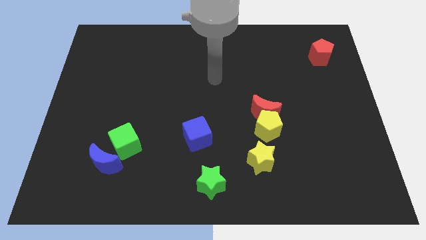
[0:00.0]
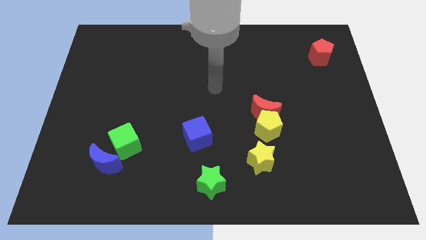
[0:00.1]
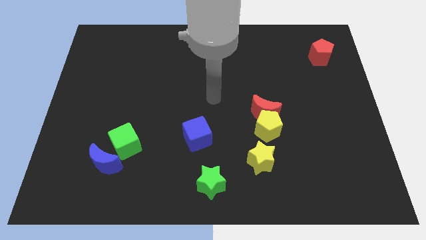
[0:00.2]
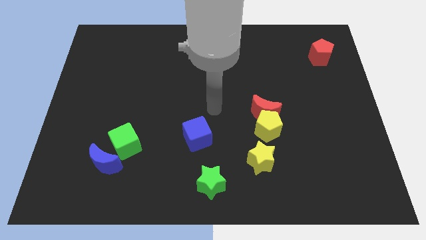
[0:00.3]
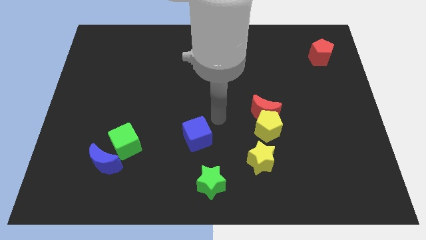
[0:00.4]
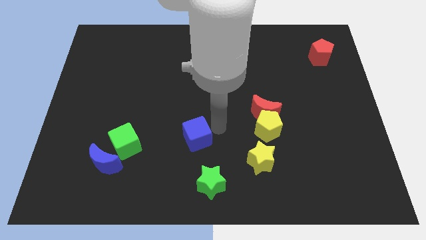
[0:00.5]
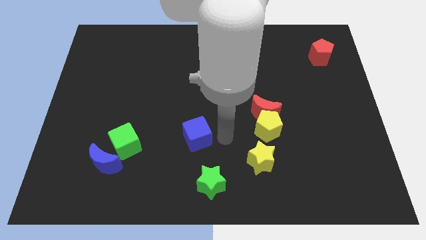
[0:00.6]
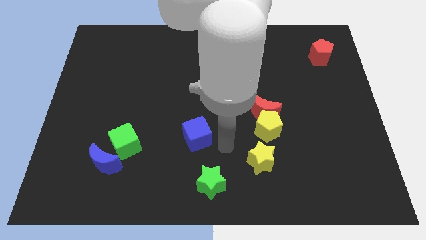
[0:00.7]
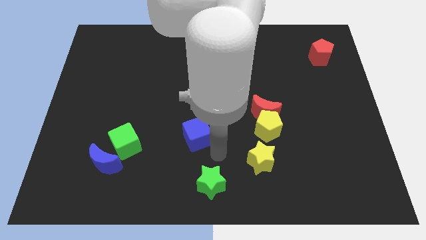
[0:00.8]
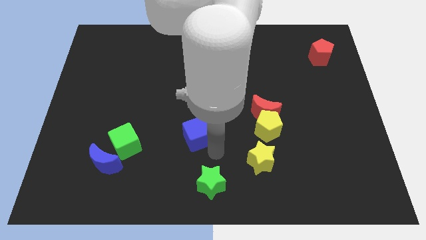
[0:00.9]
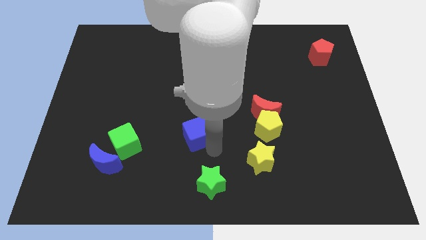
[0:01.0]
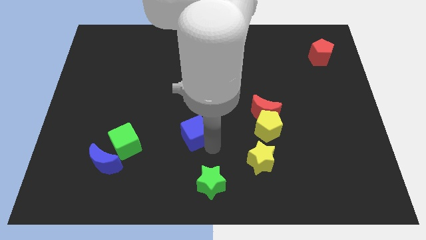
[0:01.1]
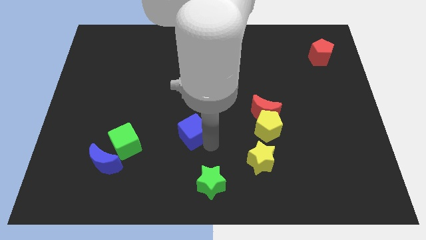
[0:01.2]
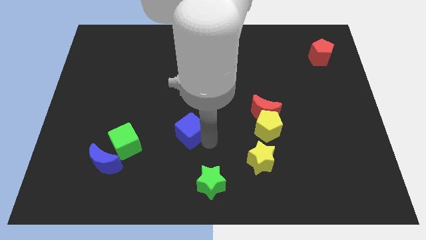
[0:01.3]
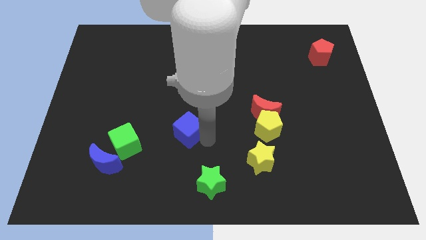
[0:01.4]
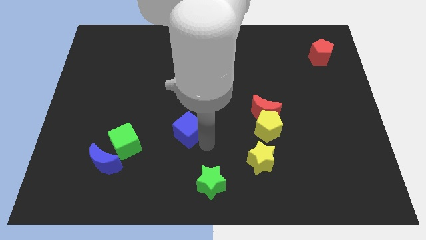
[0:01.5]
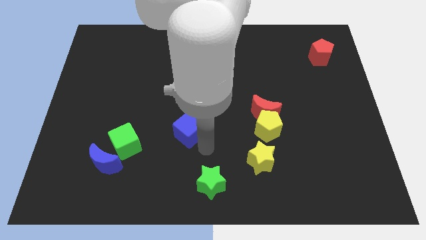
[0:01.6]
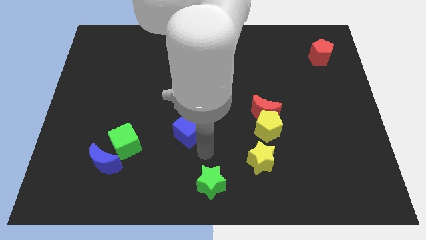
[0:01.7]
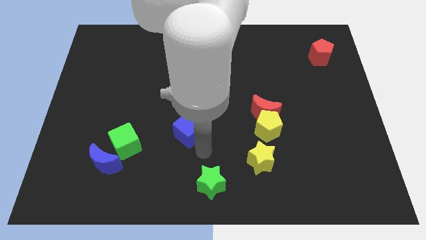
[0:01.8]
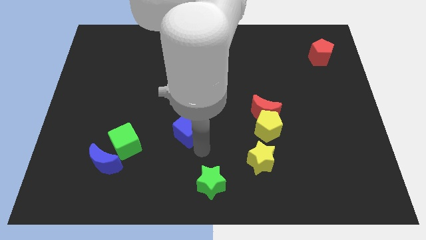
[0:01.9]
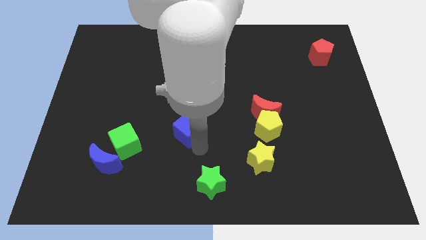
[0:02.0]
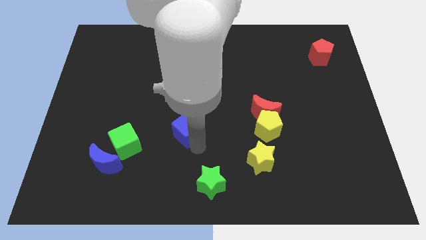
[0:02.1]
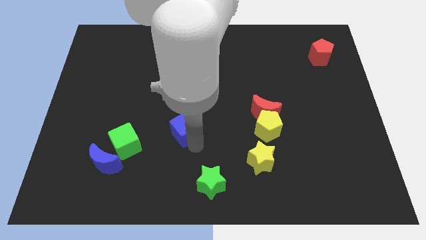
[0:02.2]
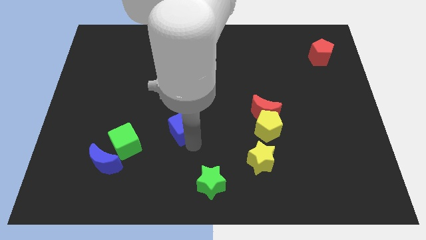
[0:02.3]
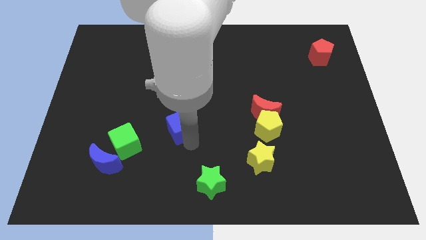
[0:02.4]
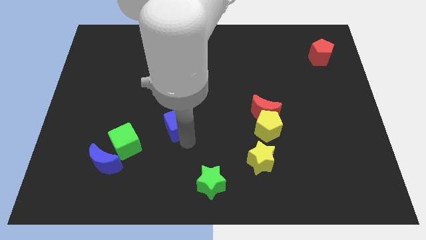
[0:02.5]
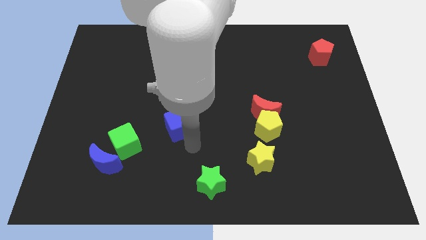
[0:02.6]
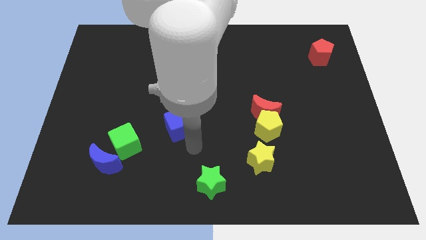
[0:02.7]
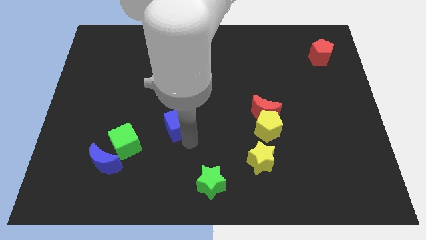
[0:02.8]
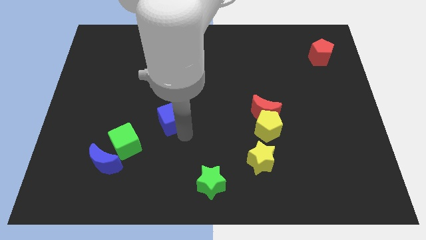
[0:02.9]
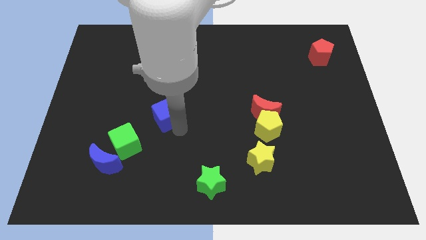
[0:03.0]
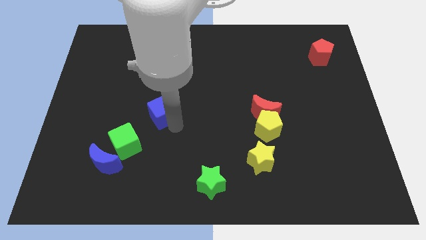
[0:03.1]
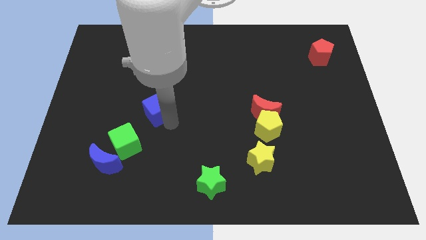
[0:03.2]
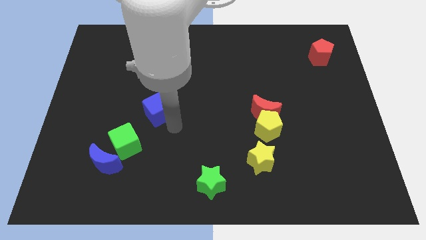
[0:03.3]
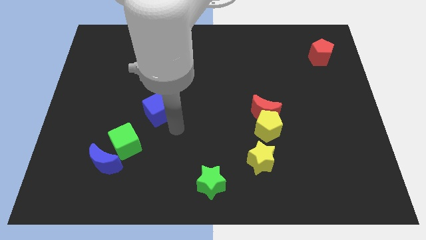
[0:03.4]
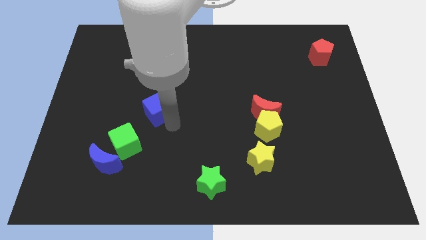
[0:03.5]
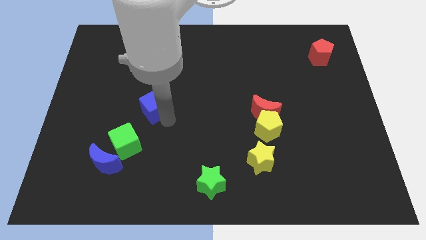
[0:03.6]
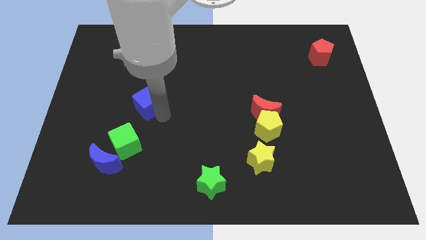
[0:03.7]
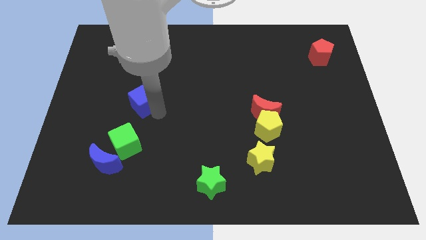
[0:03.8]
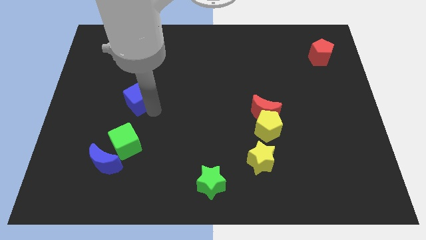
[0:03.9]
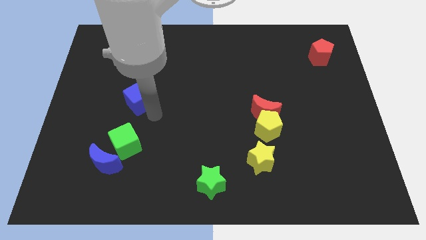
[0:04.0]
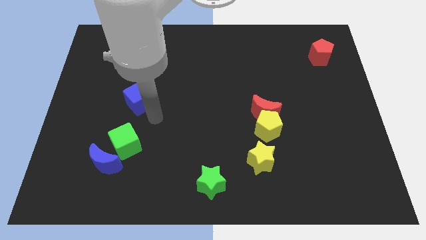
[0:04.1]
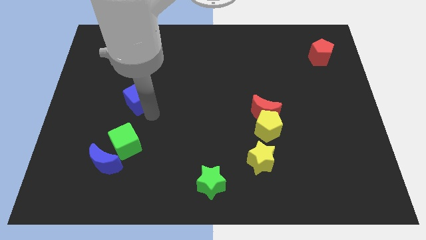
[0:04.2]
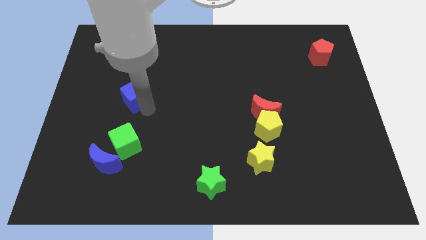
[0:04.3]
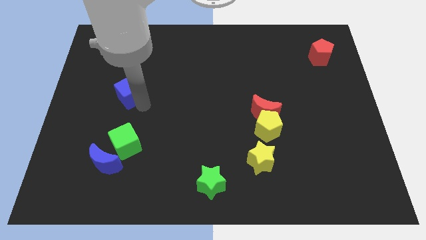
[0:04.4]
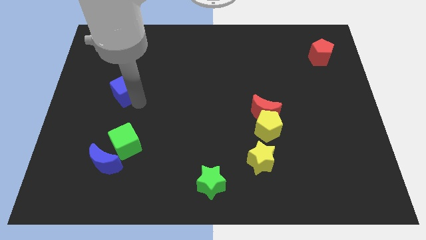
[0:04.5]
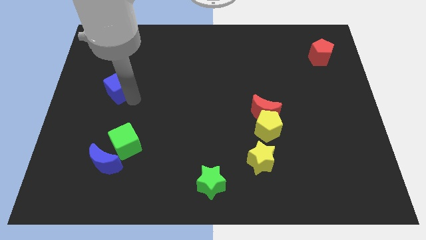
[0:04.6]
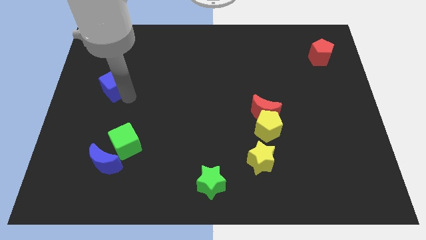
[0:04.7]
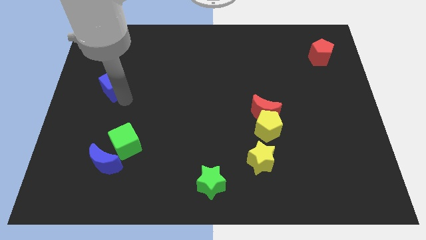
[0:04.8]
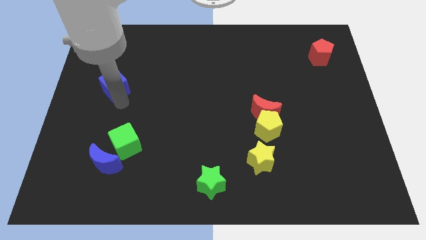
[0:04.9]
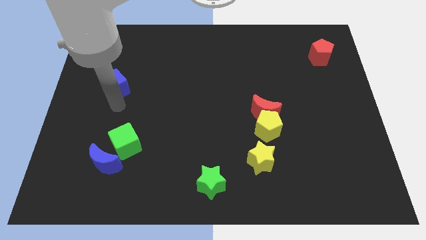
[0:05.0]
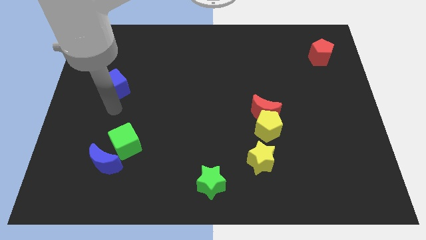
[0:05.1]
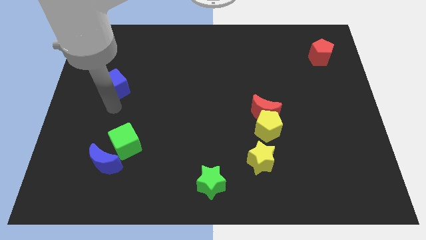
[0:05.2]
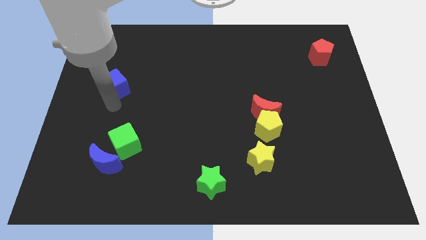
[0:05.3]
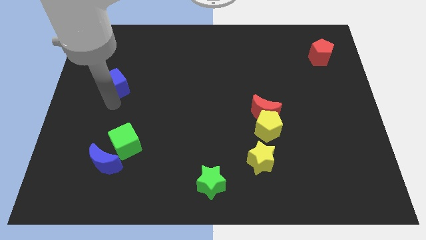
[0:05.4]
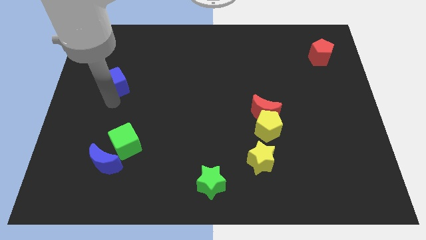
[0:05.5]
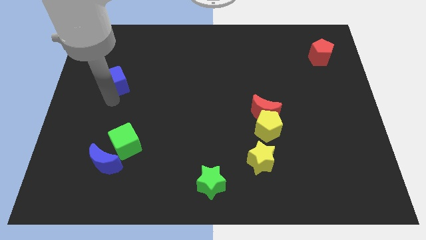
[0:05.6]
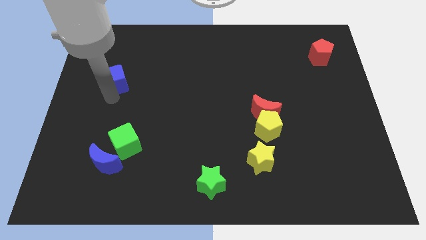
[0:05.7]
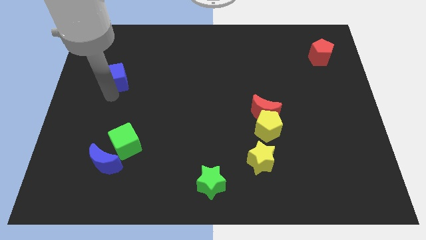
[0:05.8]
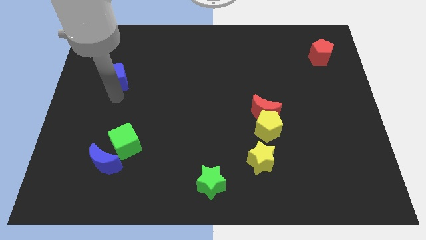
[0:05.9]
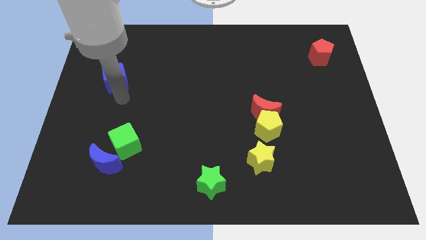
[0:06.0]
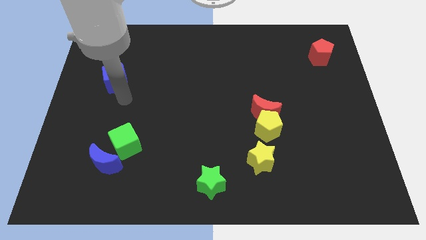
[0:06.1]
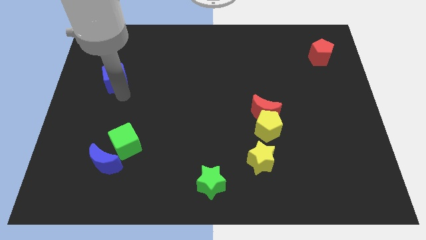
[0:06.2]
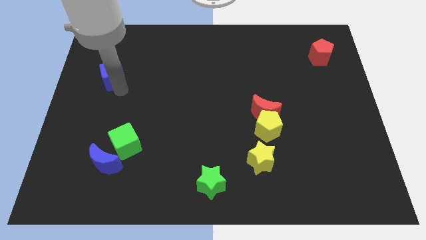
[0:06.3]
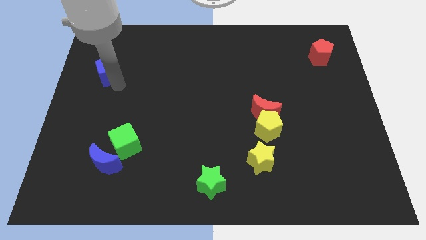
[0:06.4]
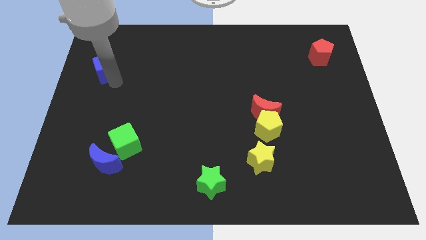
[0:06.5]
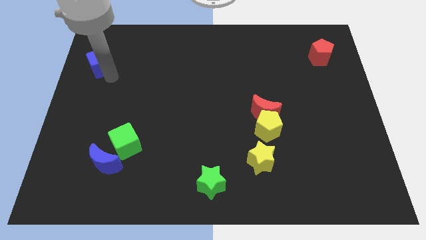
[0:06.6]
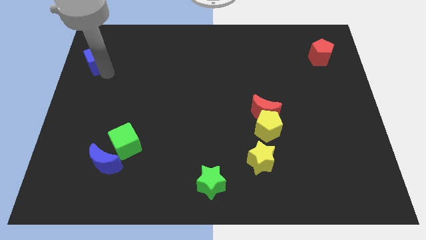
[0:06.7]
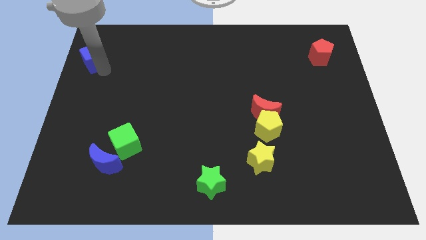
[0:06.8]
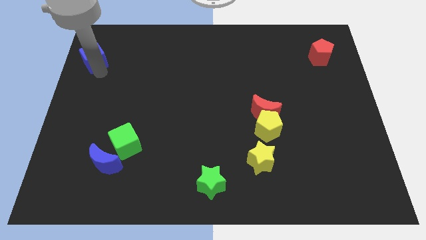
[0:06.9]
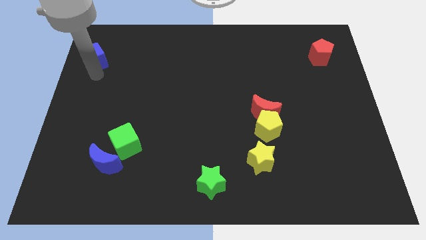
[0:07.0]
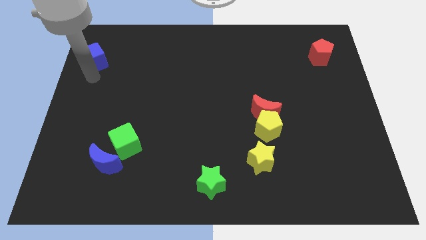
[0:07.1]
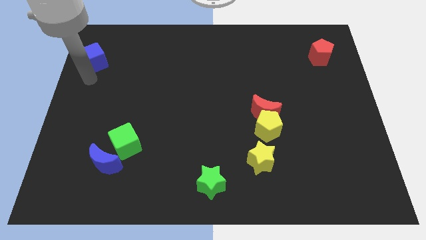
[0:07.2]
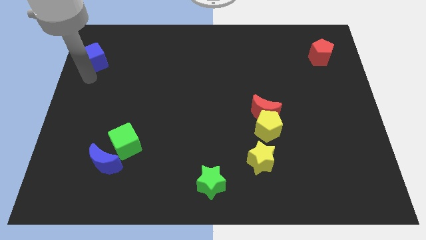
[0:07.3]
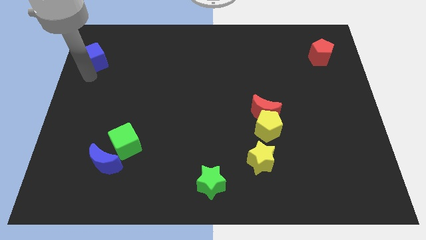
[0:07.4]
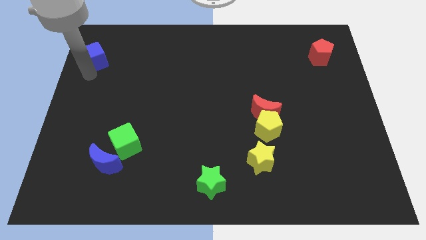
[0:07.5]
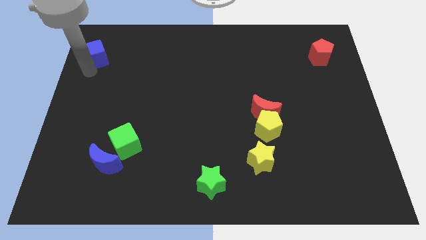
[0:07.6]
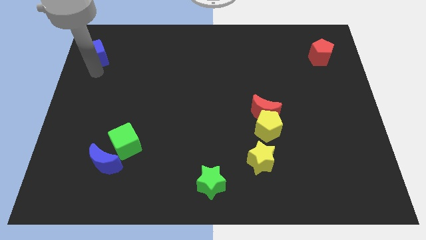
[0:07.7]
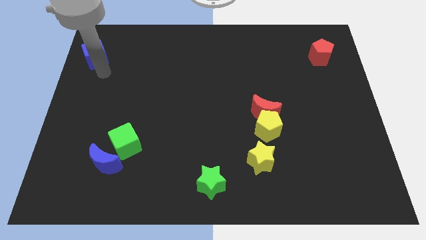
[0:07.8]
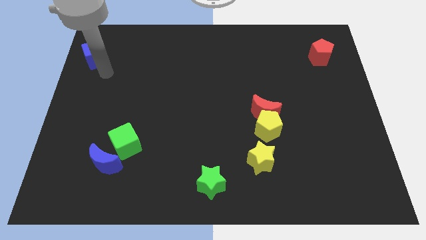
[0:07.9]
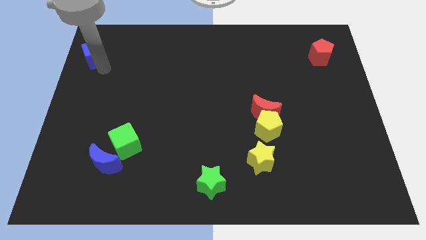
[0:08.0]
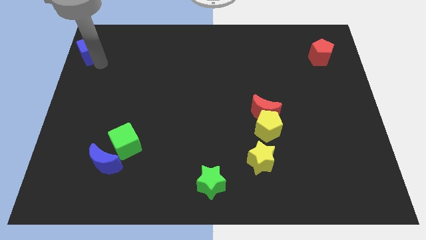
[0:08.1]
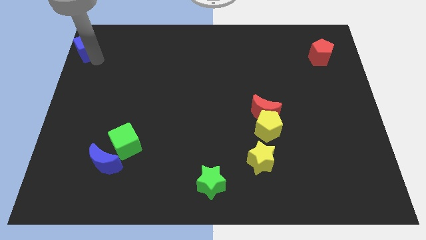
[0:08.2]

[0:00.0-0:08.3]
slide the blue cube to the top left of the board
